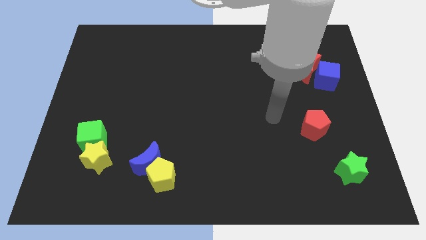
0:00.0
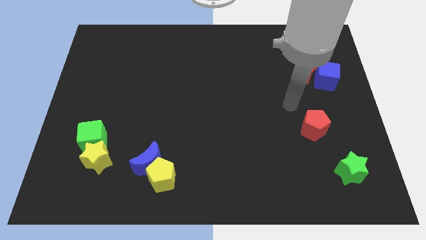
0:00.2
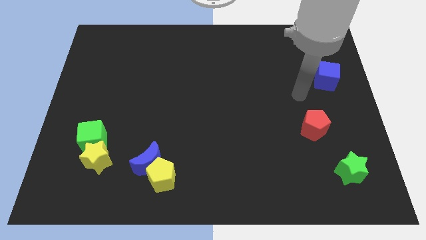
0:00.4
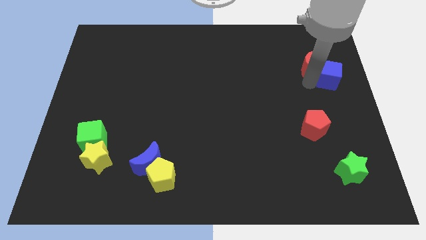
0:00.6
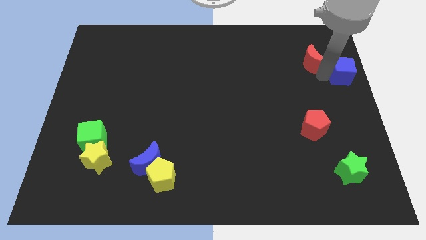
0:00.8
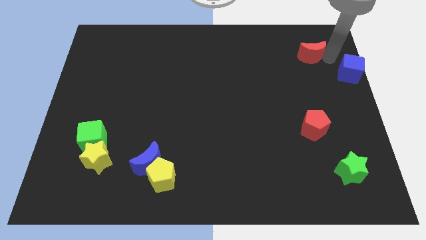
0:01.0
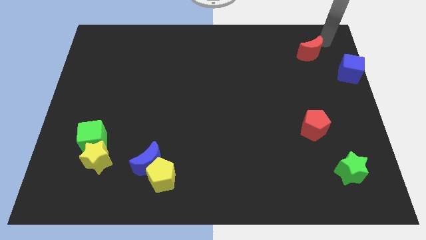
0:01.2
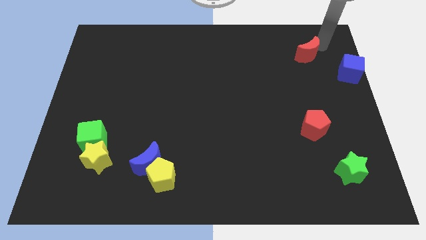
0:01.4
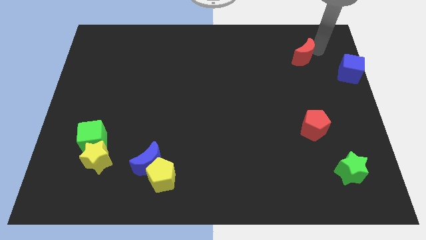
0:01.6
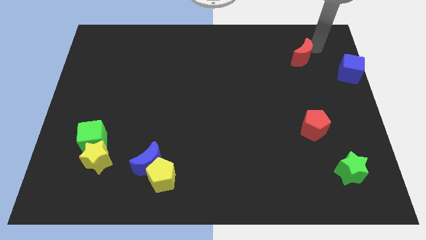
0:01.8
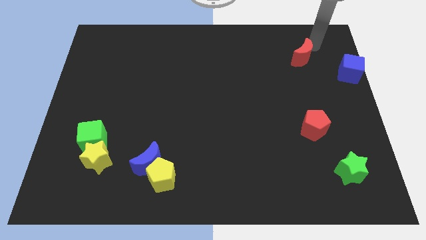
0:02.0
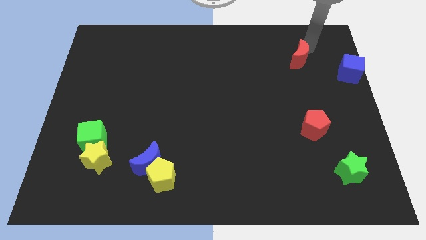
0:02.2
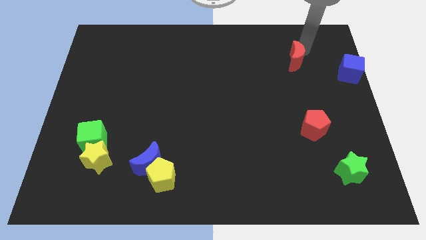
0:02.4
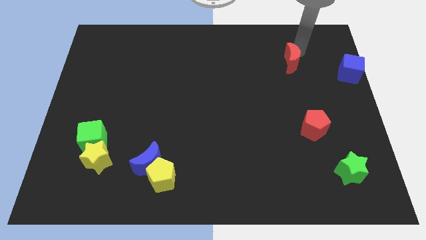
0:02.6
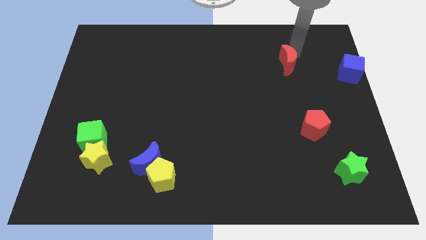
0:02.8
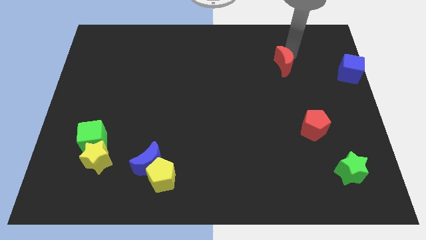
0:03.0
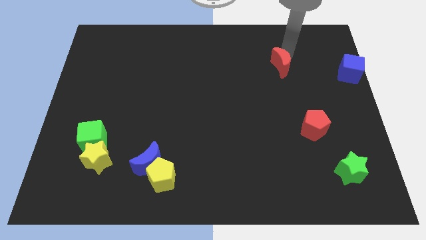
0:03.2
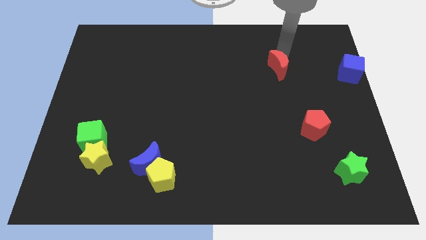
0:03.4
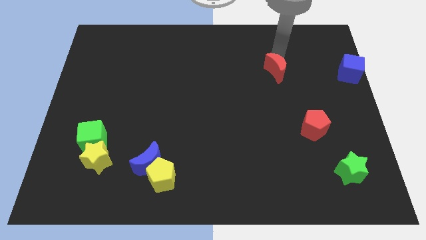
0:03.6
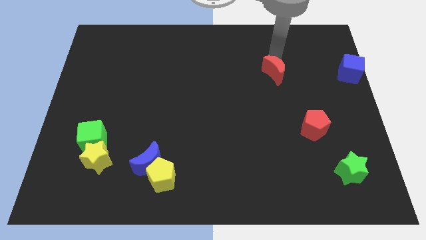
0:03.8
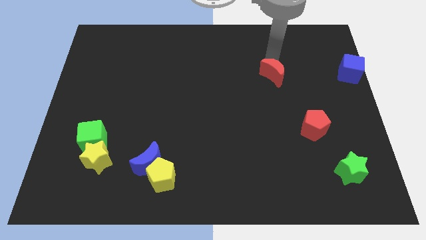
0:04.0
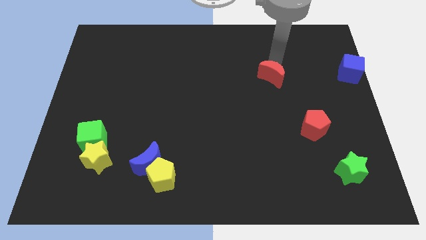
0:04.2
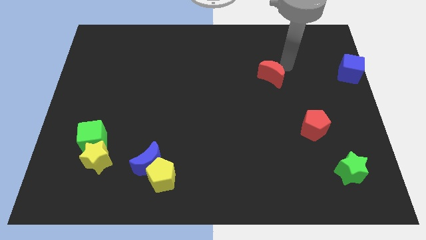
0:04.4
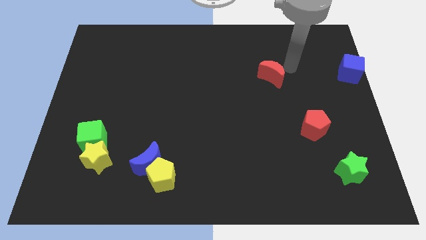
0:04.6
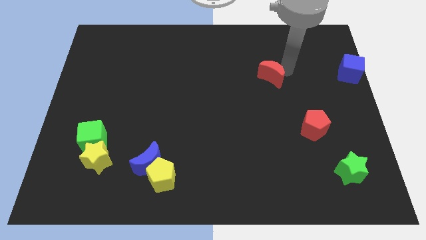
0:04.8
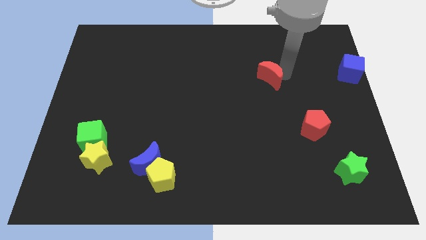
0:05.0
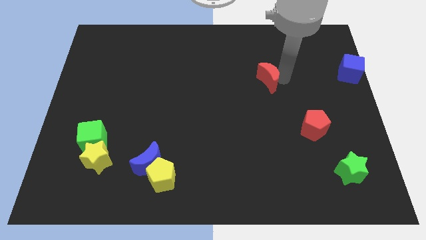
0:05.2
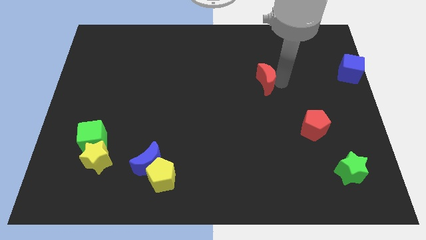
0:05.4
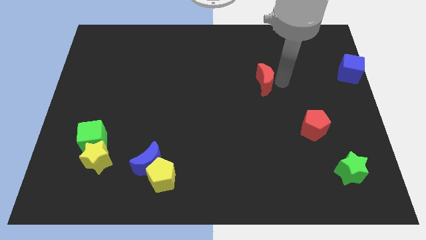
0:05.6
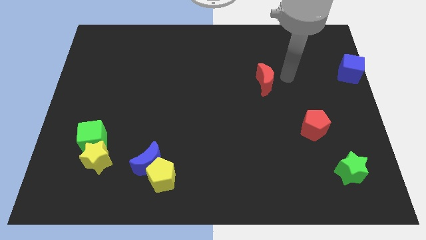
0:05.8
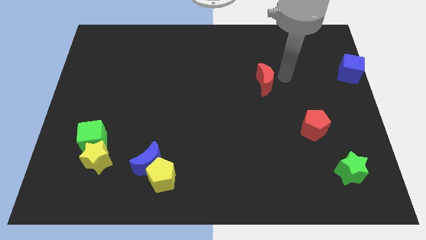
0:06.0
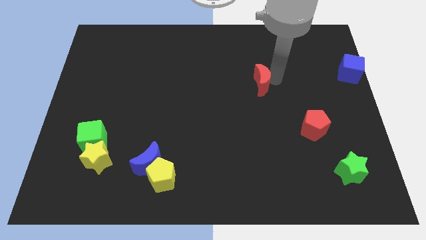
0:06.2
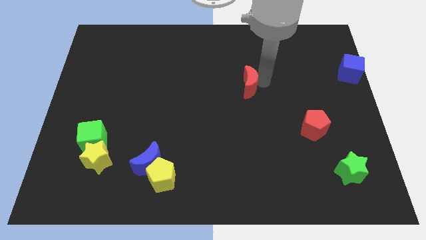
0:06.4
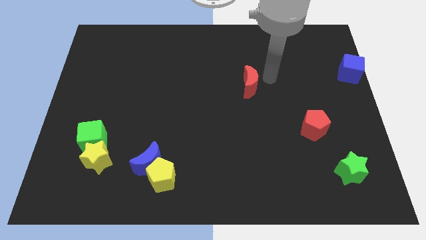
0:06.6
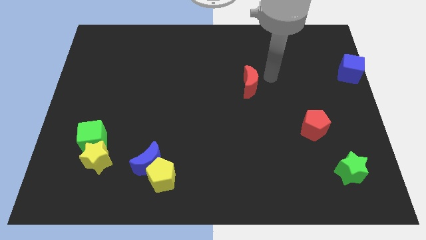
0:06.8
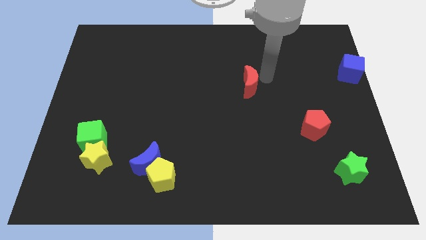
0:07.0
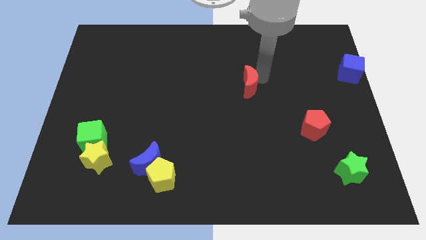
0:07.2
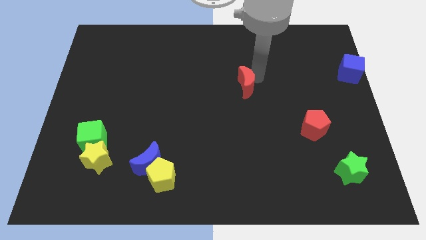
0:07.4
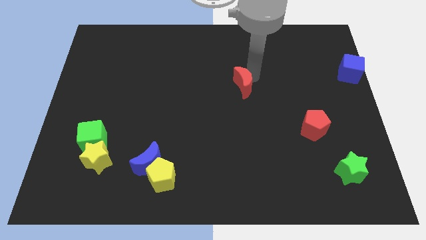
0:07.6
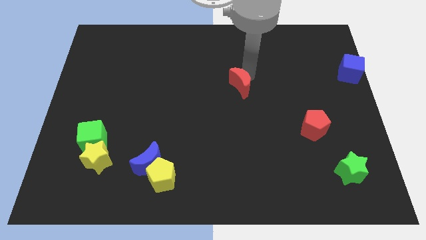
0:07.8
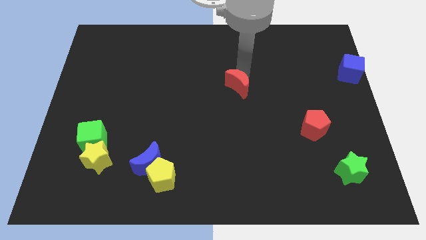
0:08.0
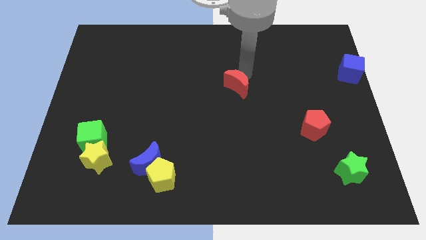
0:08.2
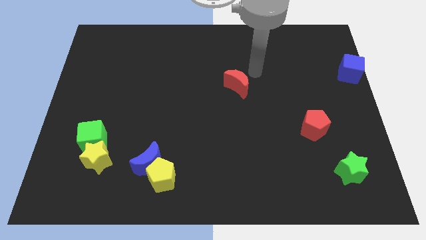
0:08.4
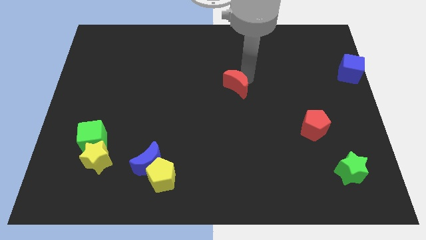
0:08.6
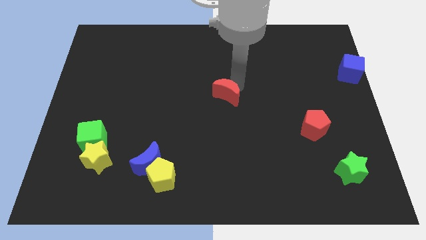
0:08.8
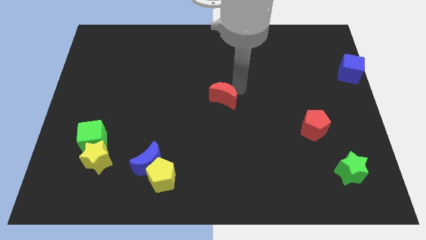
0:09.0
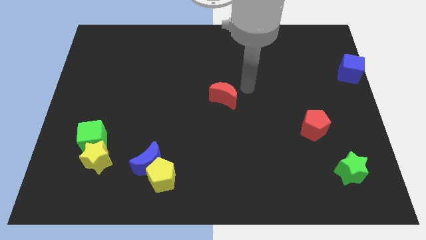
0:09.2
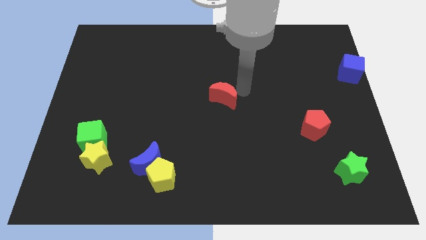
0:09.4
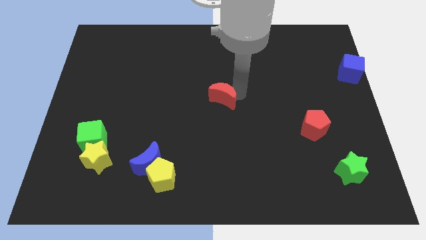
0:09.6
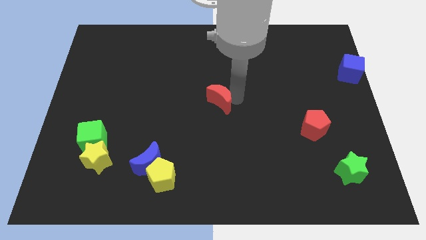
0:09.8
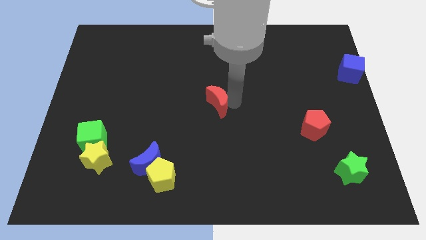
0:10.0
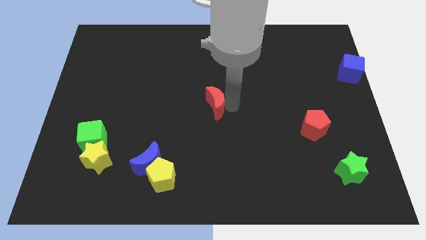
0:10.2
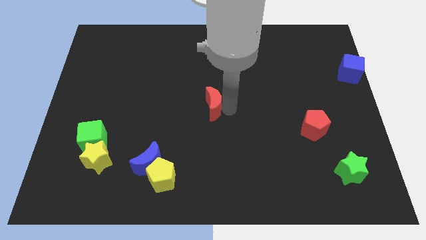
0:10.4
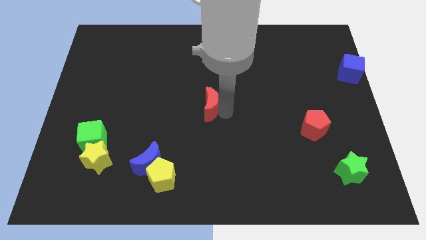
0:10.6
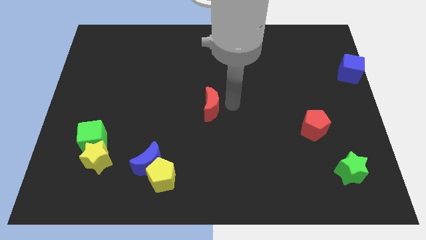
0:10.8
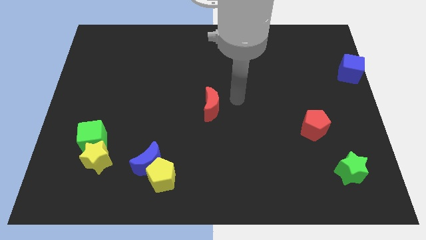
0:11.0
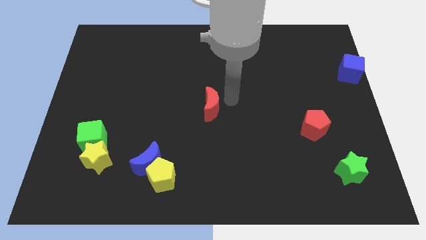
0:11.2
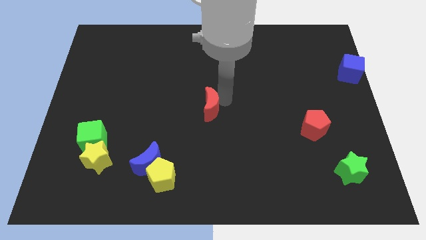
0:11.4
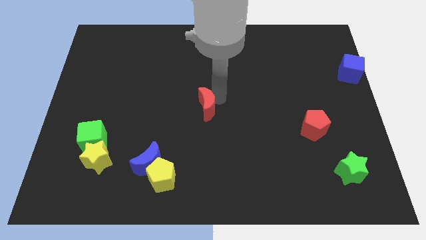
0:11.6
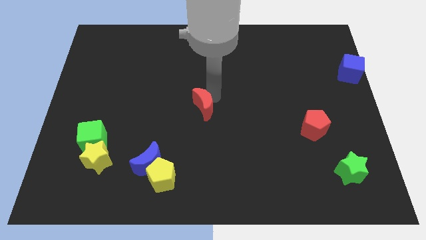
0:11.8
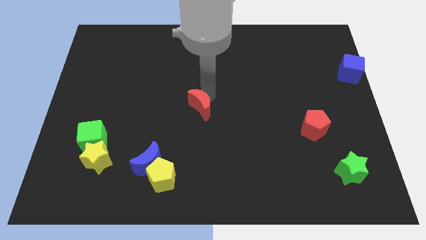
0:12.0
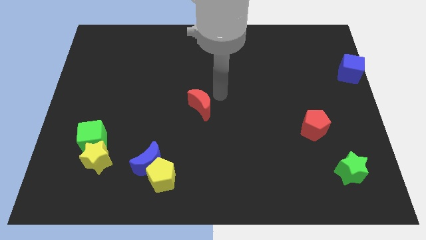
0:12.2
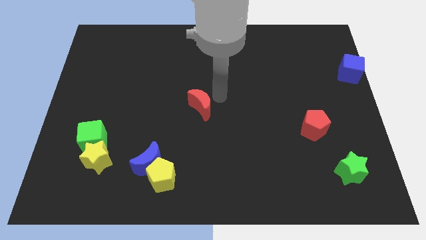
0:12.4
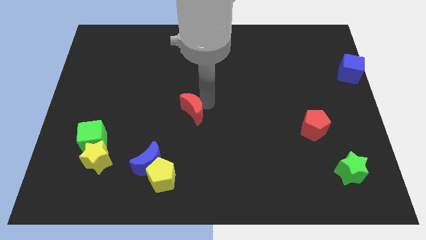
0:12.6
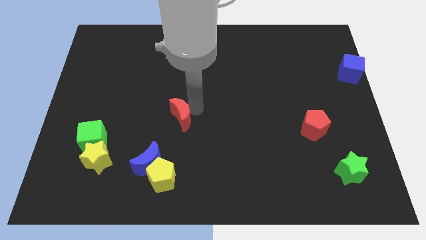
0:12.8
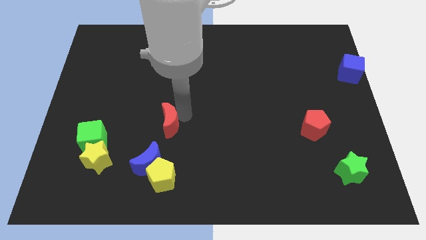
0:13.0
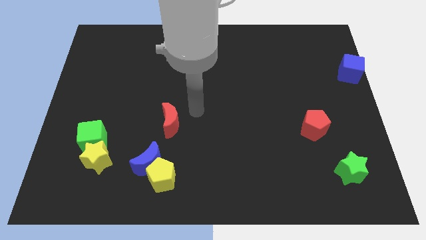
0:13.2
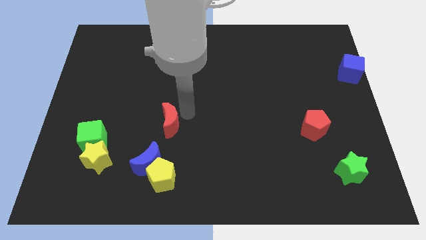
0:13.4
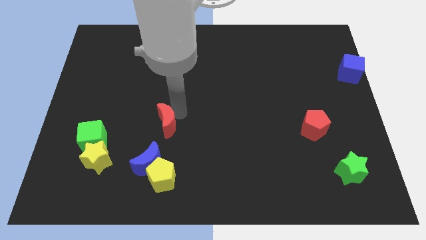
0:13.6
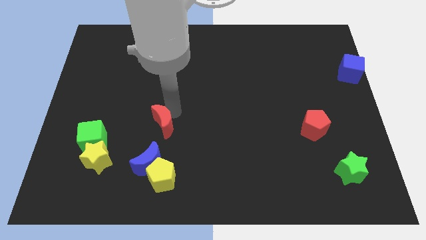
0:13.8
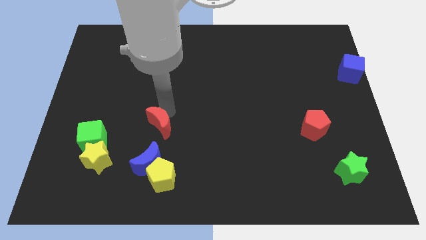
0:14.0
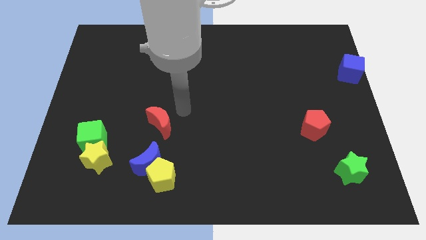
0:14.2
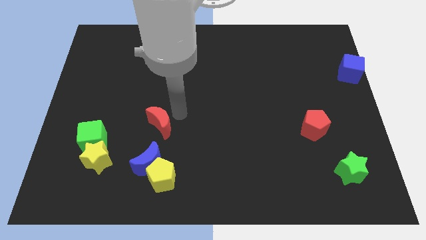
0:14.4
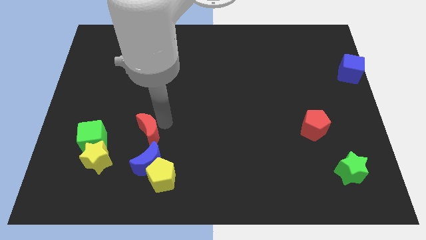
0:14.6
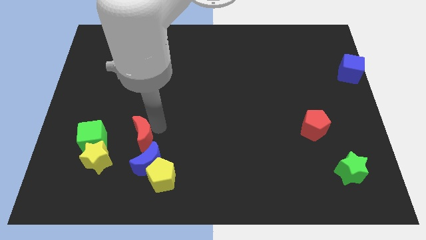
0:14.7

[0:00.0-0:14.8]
push the red moon to the top left side of the blue moon
